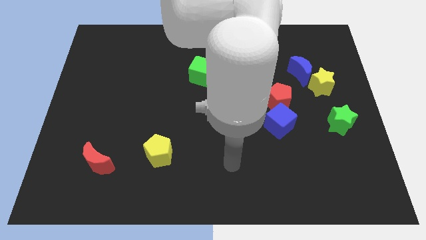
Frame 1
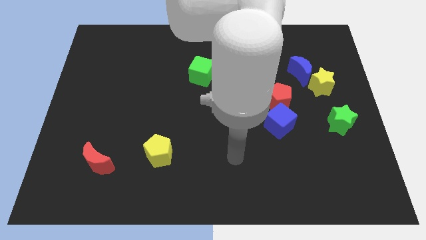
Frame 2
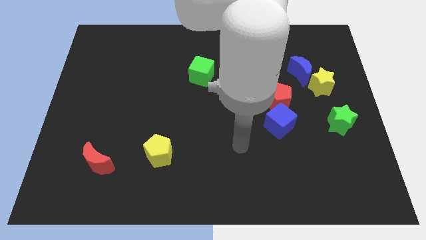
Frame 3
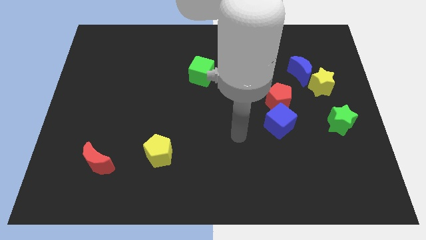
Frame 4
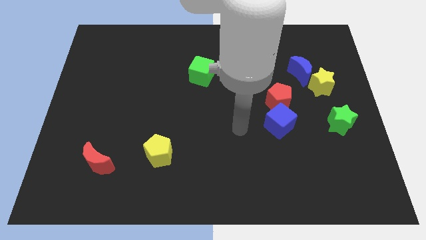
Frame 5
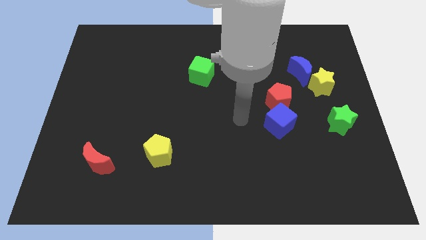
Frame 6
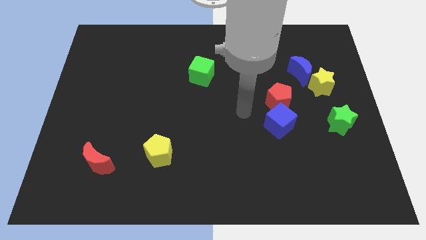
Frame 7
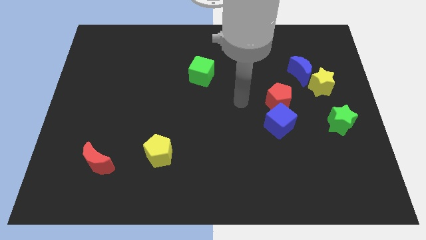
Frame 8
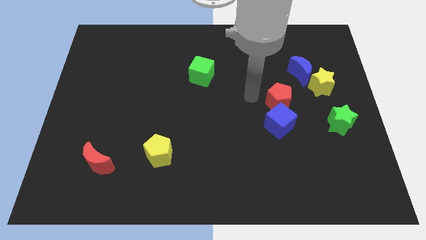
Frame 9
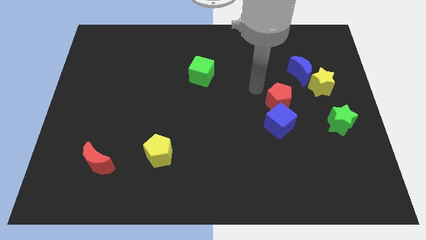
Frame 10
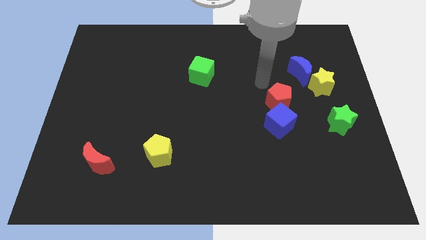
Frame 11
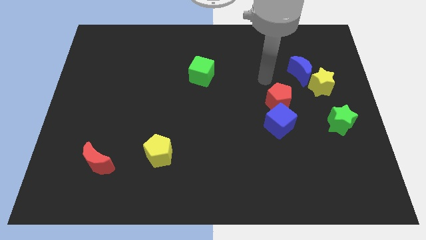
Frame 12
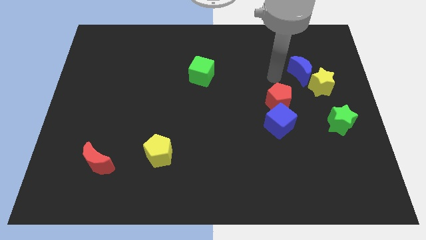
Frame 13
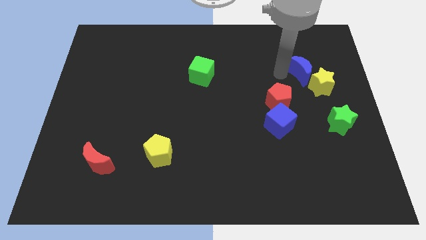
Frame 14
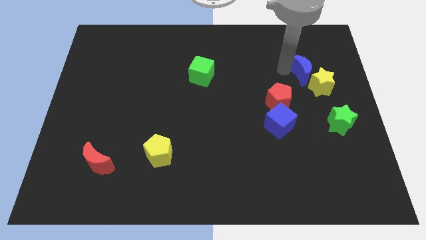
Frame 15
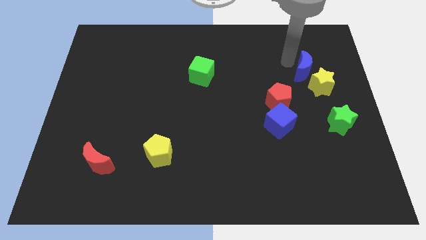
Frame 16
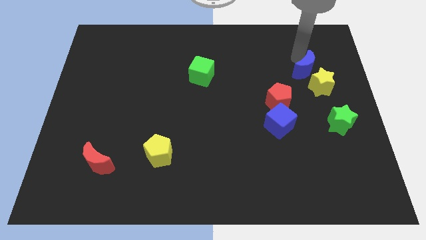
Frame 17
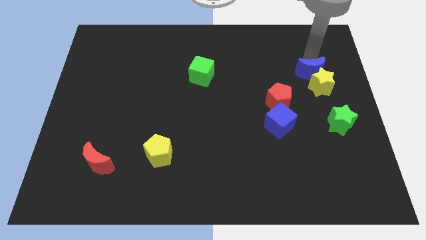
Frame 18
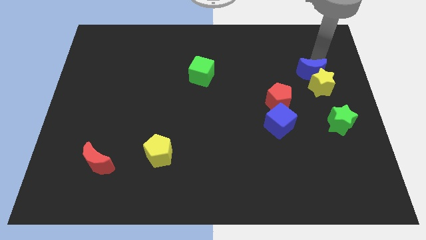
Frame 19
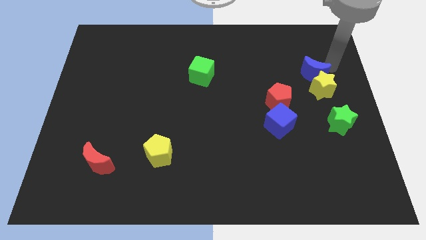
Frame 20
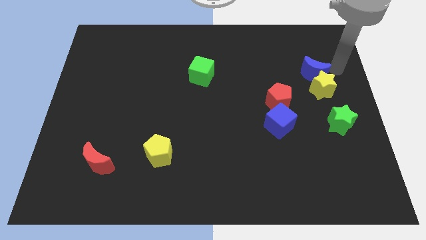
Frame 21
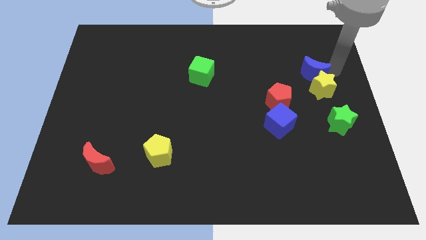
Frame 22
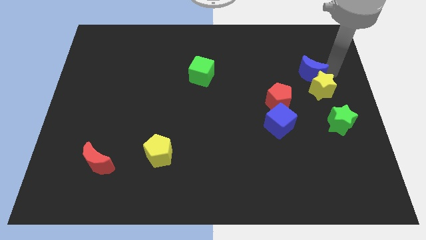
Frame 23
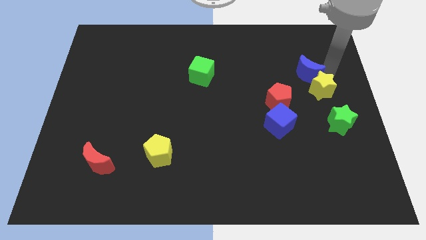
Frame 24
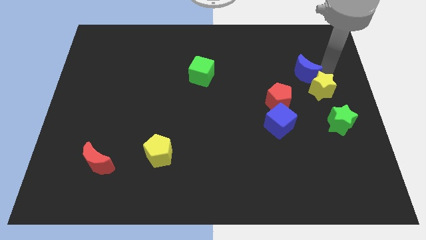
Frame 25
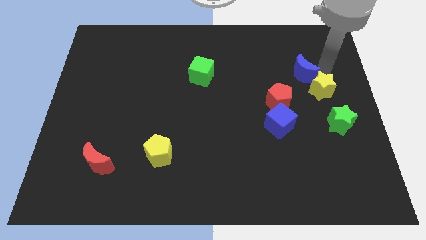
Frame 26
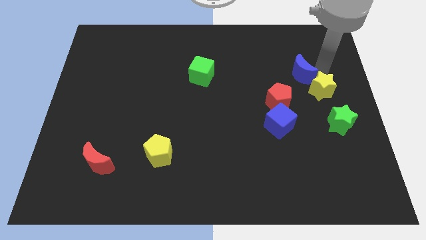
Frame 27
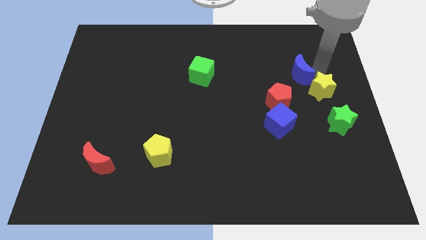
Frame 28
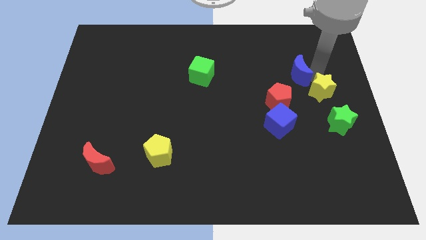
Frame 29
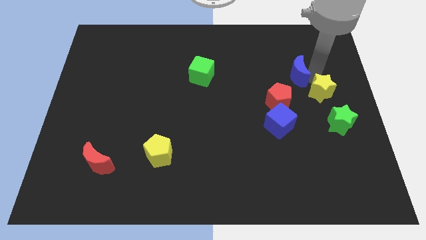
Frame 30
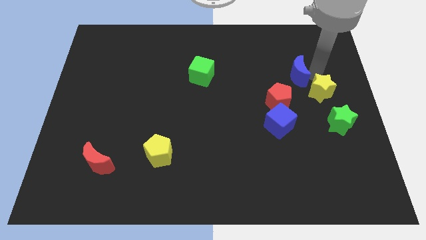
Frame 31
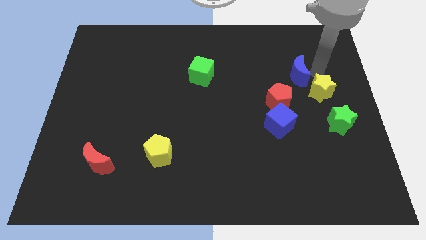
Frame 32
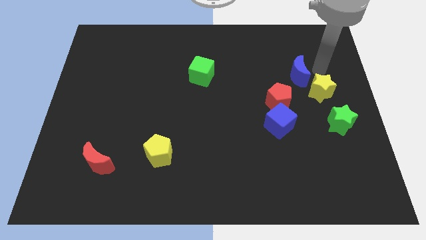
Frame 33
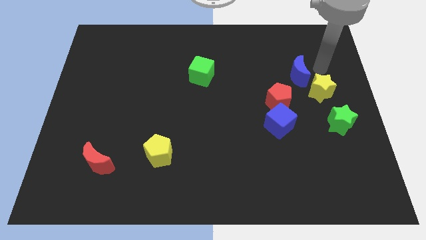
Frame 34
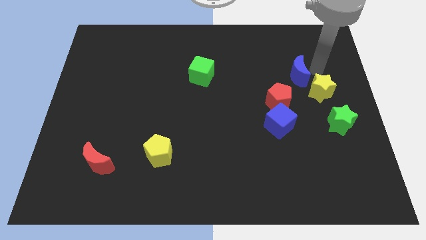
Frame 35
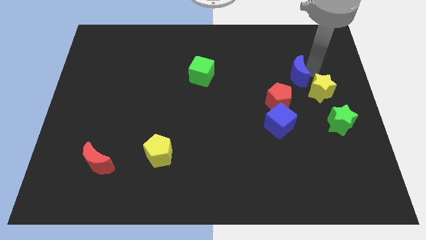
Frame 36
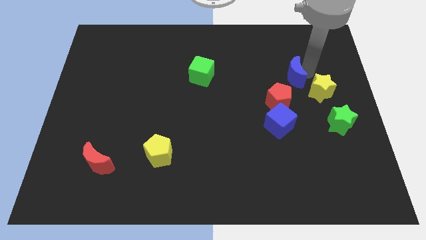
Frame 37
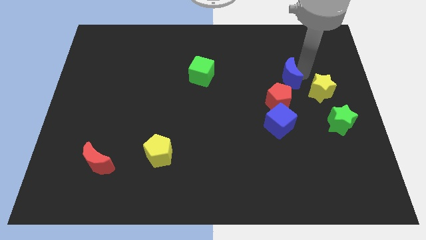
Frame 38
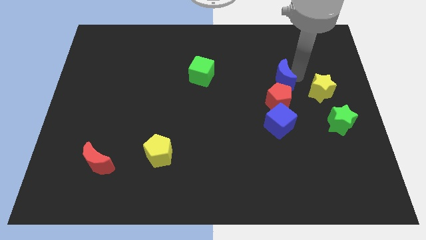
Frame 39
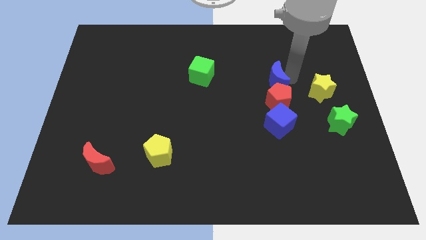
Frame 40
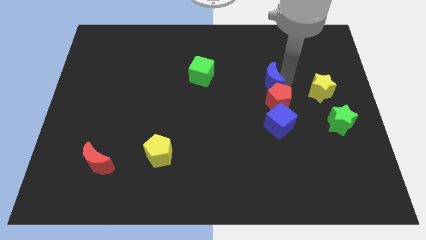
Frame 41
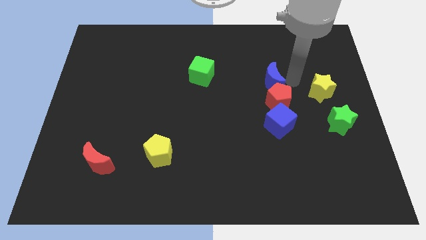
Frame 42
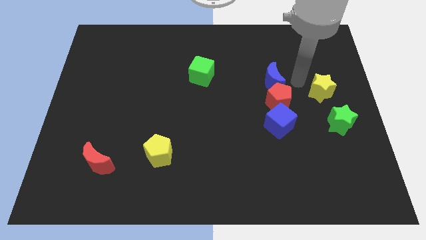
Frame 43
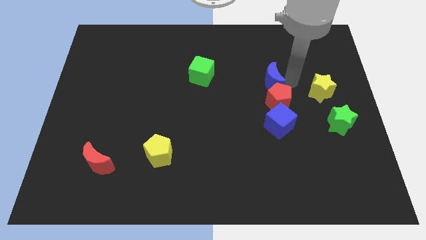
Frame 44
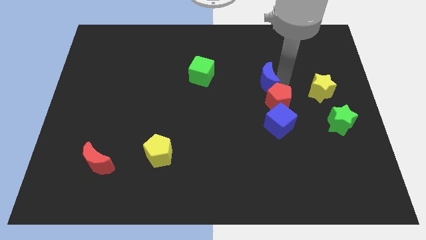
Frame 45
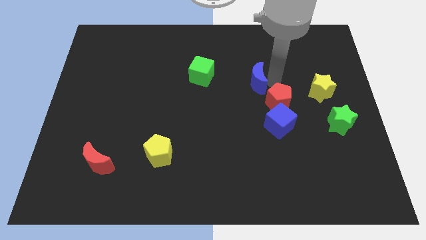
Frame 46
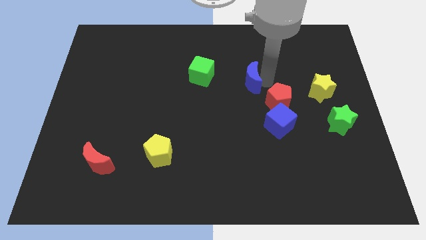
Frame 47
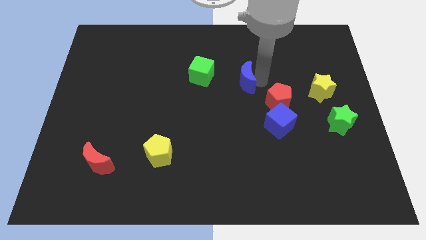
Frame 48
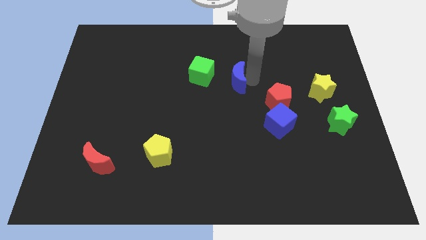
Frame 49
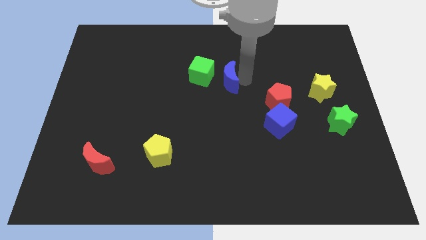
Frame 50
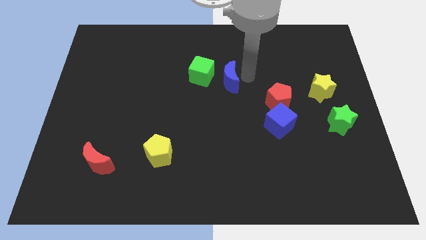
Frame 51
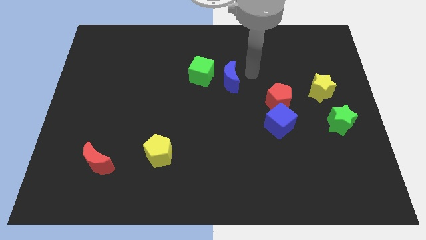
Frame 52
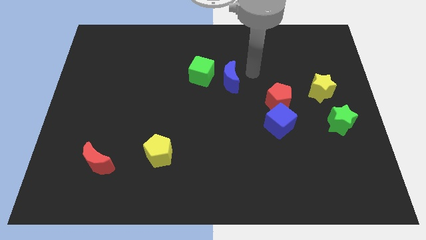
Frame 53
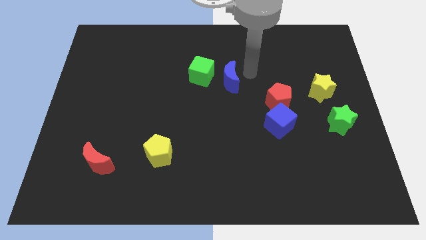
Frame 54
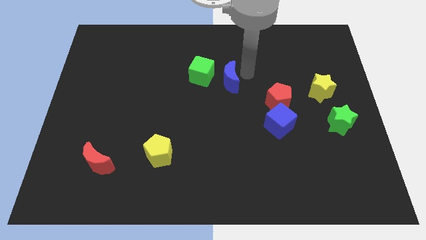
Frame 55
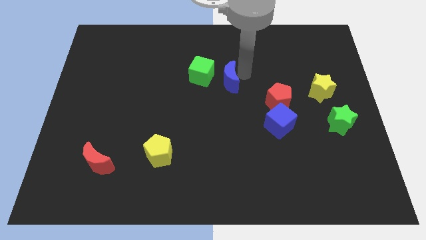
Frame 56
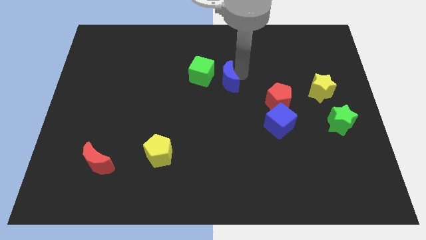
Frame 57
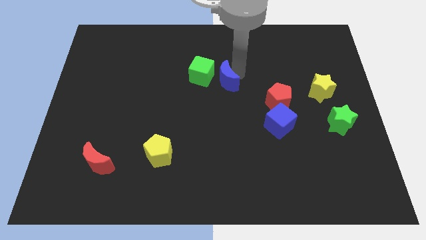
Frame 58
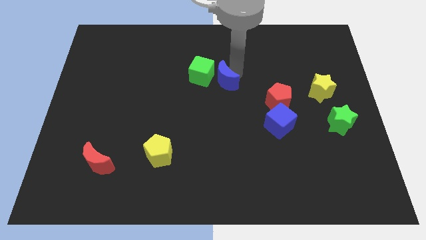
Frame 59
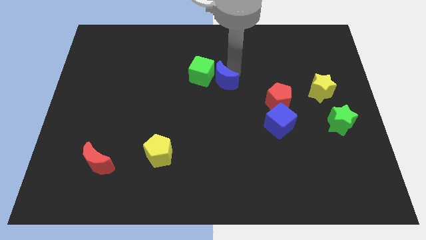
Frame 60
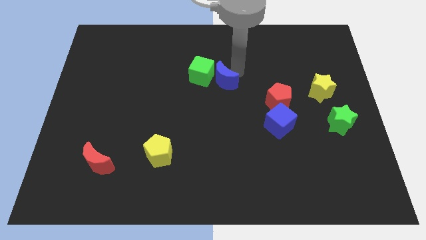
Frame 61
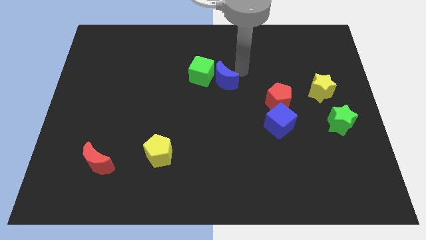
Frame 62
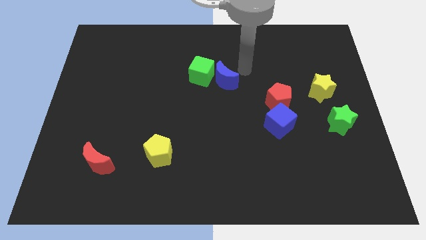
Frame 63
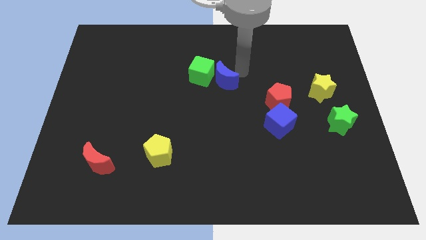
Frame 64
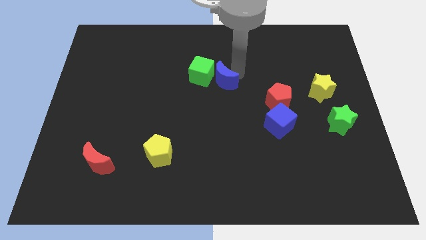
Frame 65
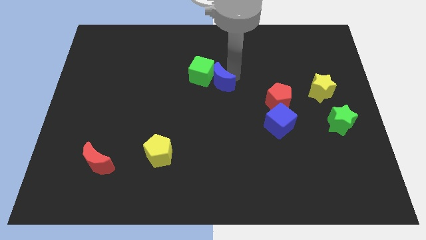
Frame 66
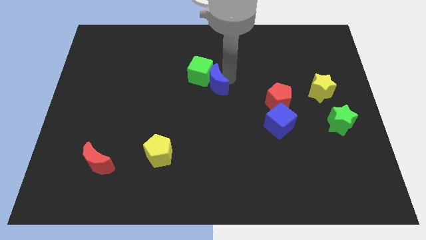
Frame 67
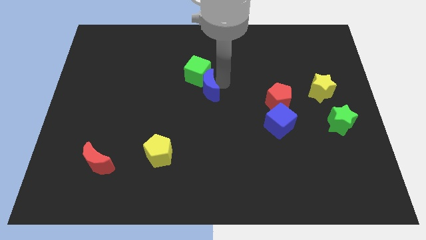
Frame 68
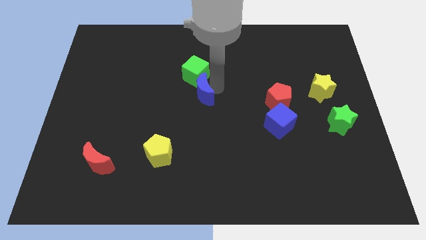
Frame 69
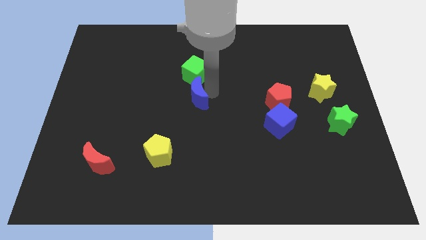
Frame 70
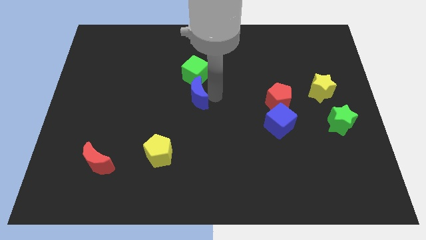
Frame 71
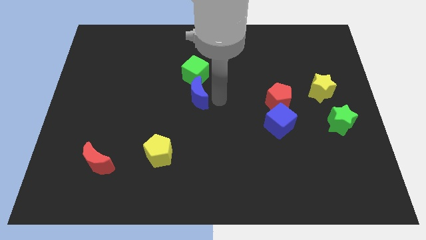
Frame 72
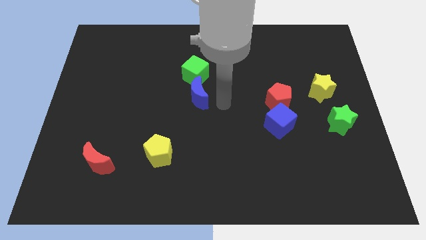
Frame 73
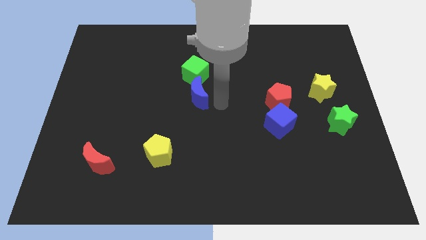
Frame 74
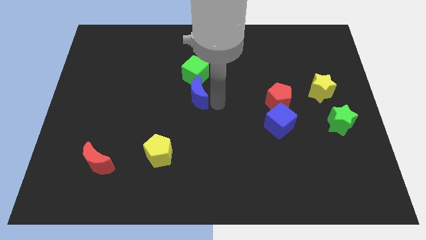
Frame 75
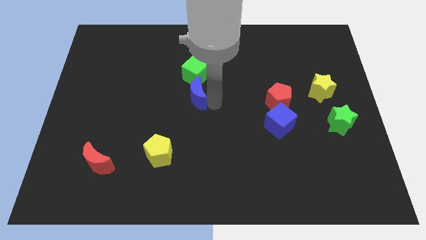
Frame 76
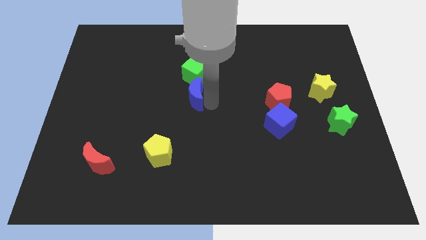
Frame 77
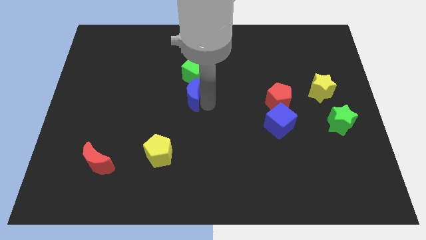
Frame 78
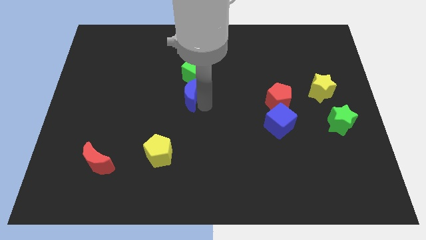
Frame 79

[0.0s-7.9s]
move the blue moon diagonally down and to the left of the green cube
